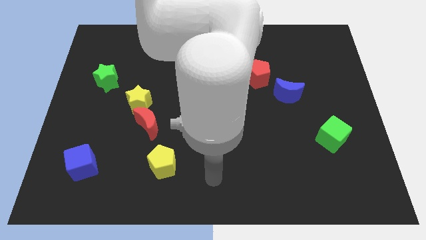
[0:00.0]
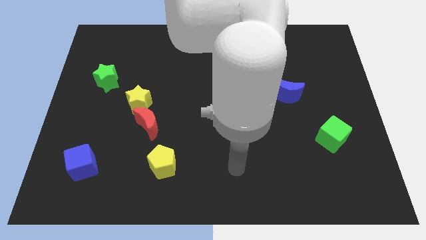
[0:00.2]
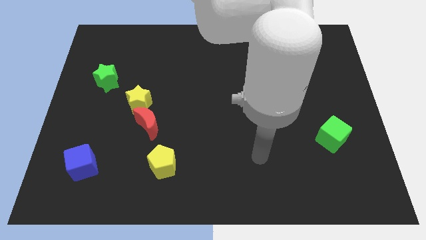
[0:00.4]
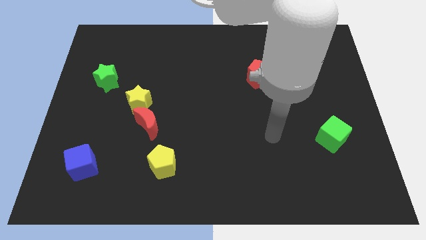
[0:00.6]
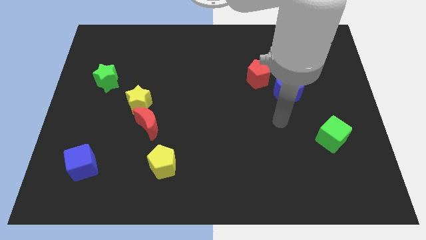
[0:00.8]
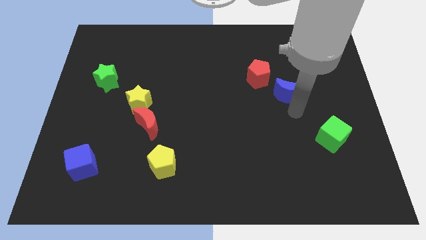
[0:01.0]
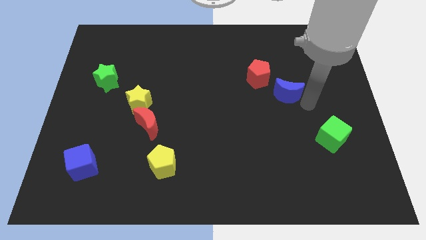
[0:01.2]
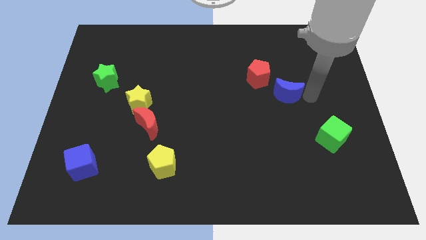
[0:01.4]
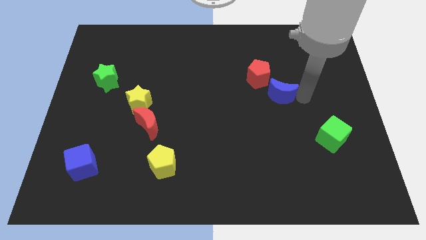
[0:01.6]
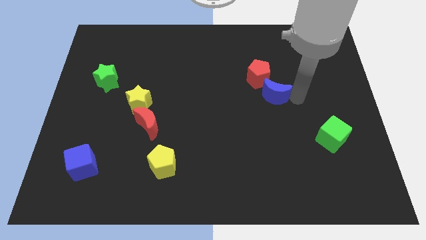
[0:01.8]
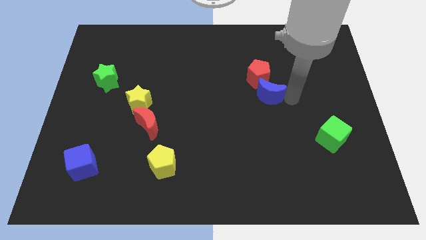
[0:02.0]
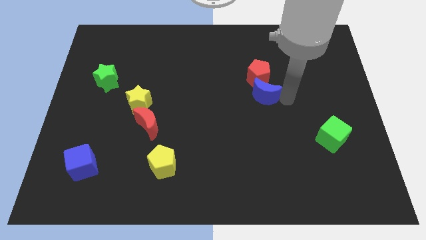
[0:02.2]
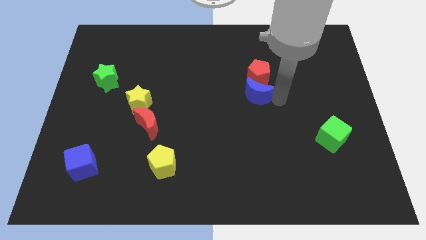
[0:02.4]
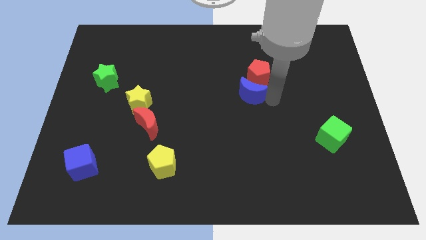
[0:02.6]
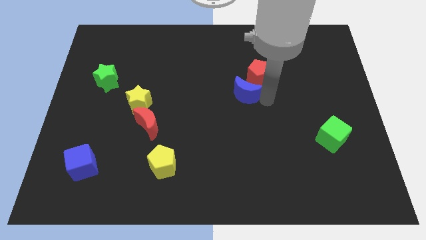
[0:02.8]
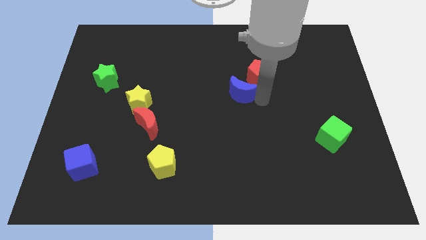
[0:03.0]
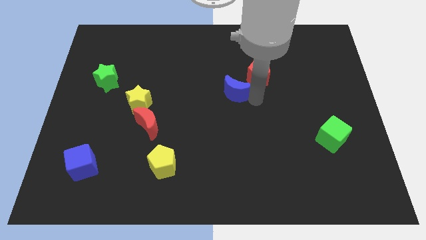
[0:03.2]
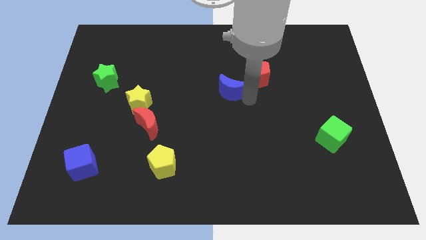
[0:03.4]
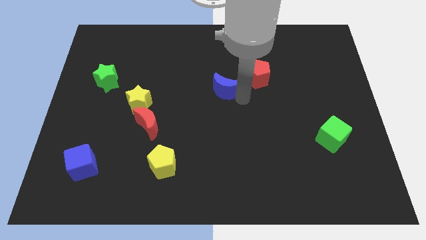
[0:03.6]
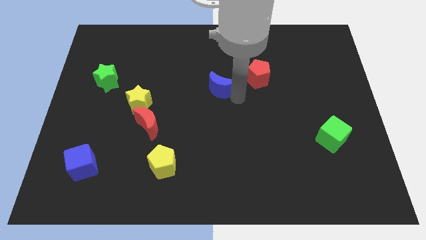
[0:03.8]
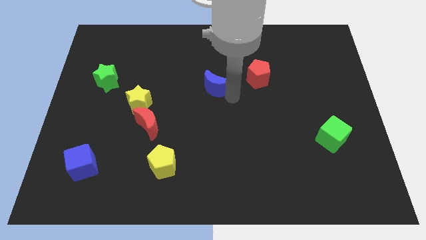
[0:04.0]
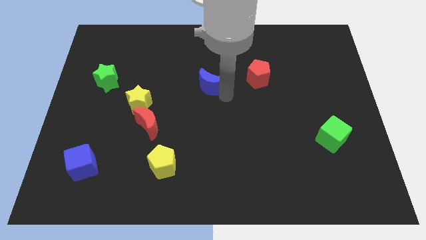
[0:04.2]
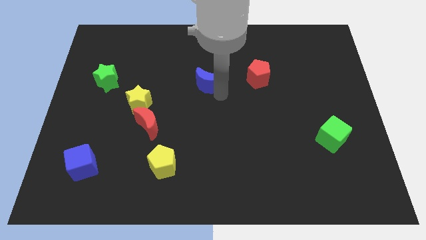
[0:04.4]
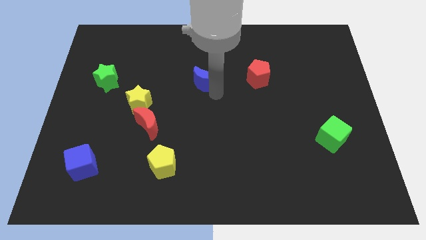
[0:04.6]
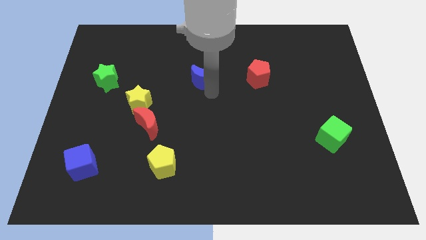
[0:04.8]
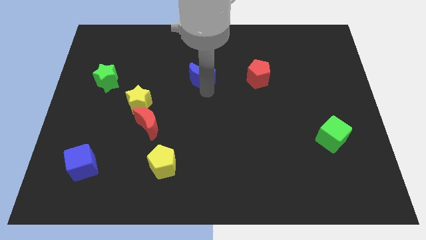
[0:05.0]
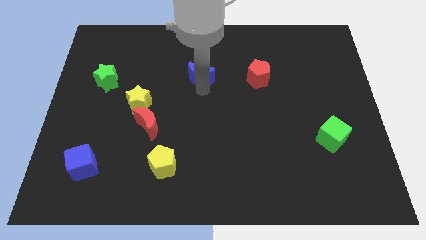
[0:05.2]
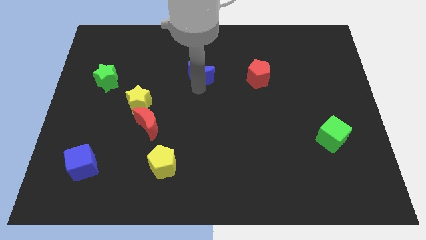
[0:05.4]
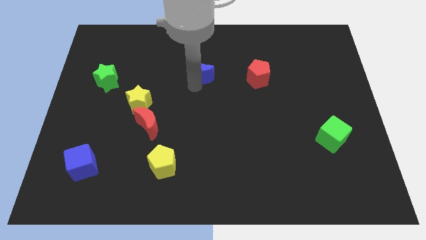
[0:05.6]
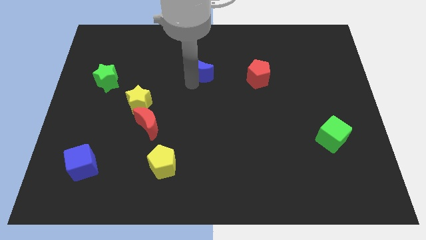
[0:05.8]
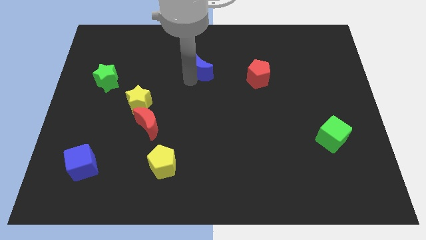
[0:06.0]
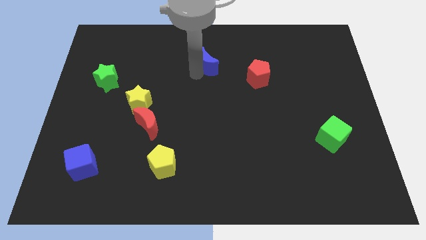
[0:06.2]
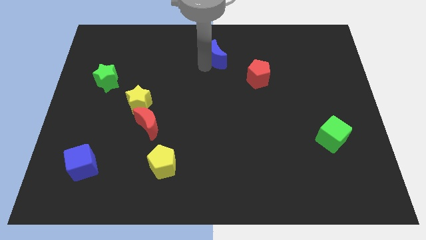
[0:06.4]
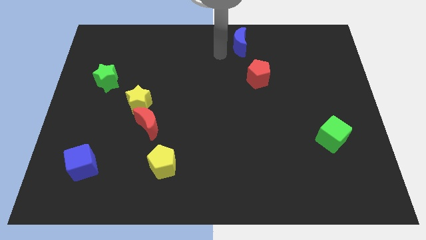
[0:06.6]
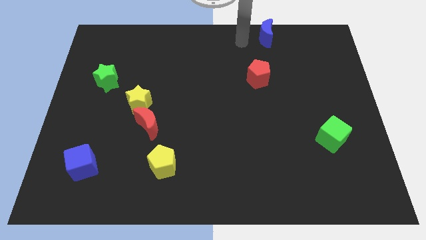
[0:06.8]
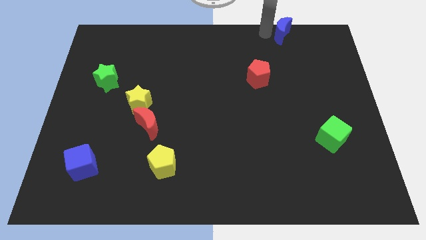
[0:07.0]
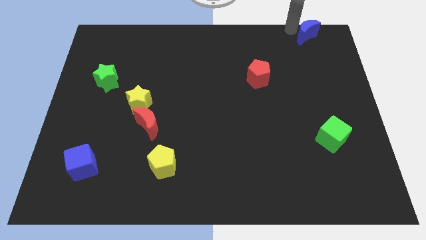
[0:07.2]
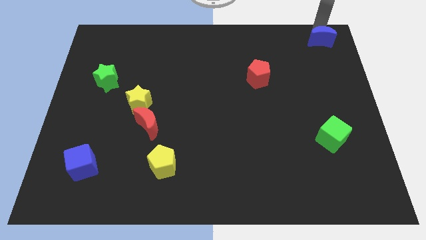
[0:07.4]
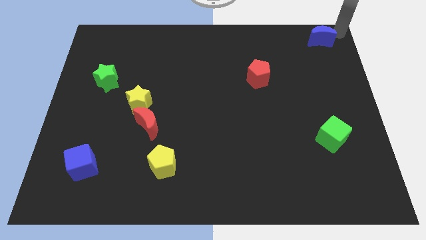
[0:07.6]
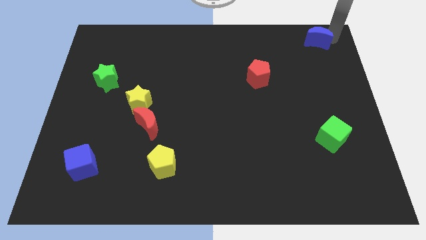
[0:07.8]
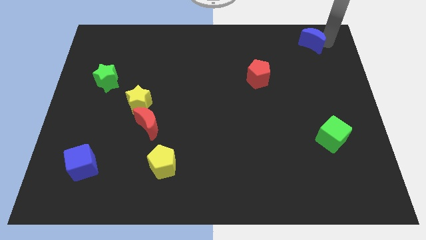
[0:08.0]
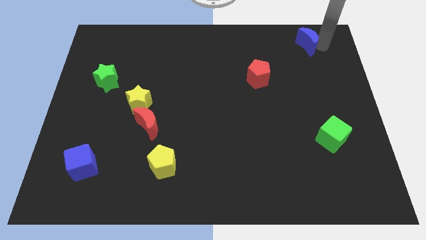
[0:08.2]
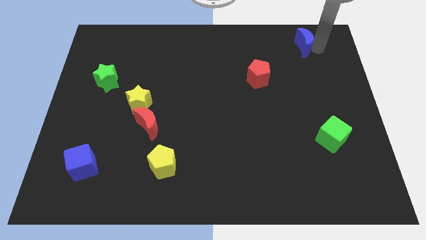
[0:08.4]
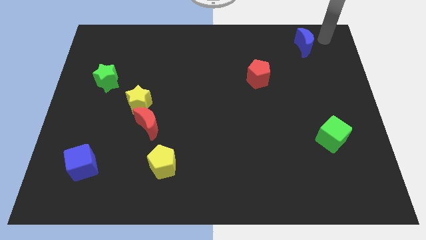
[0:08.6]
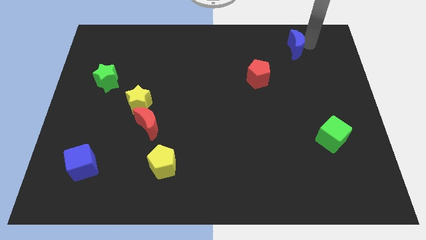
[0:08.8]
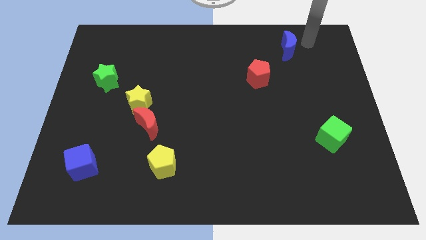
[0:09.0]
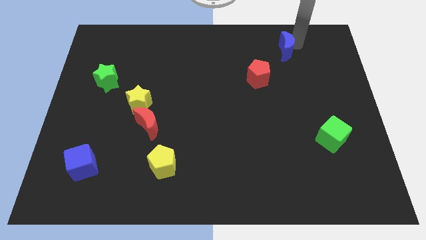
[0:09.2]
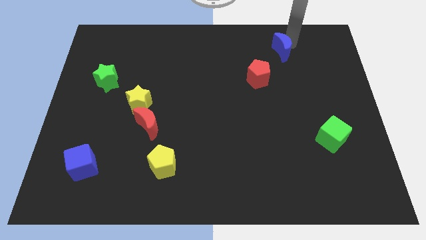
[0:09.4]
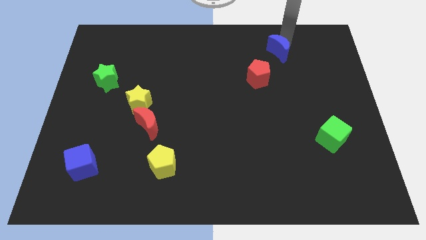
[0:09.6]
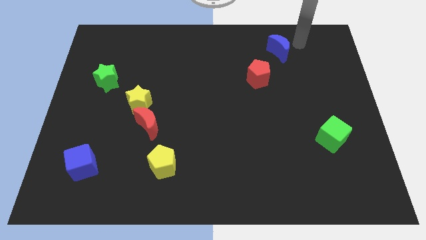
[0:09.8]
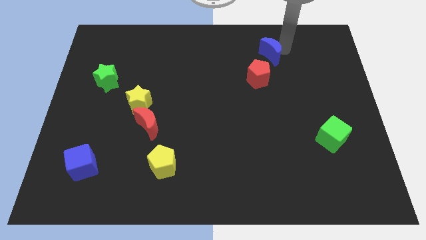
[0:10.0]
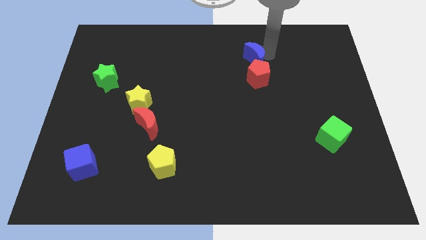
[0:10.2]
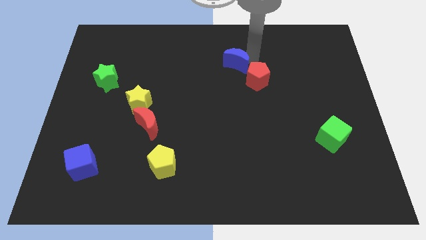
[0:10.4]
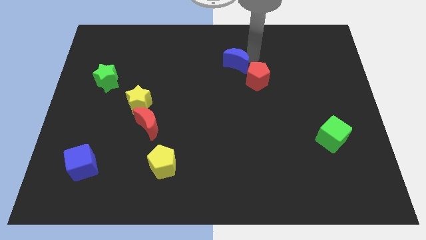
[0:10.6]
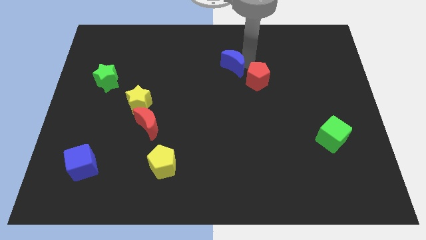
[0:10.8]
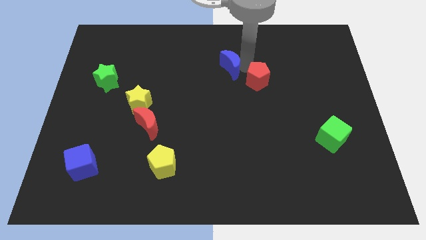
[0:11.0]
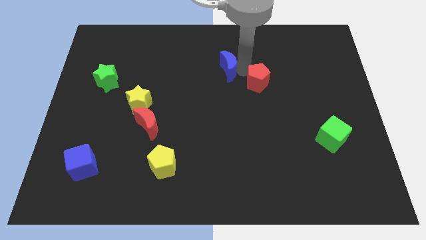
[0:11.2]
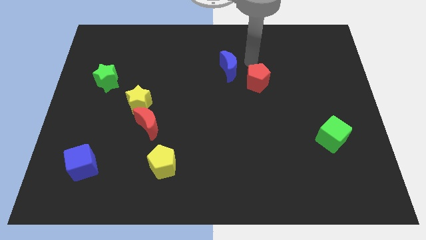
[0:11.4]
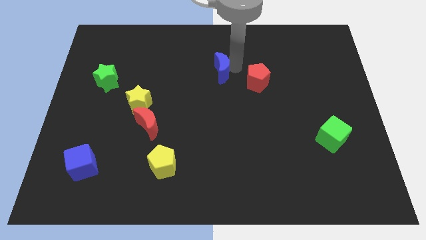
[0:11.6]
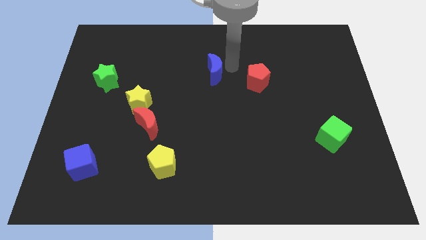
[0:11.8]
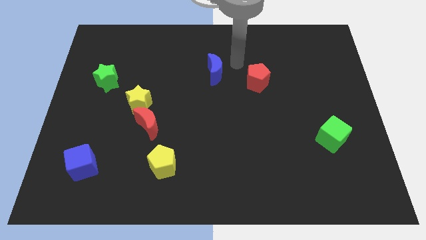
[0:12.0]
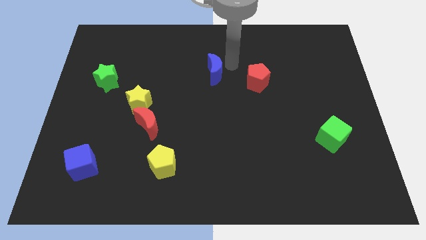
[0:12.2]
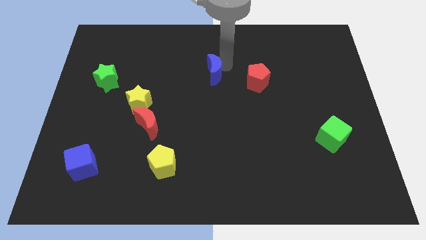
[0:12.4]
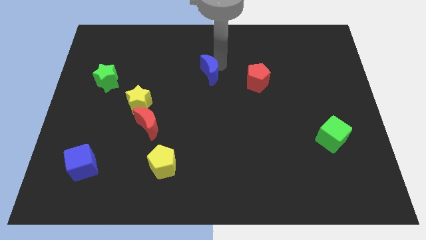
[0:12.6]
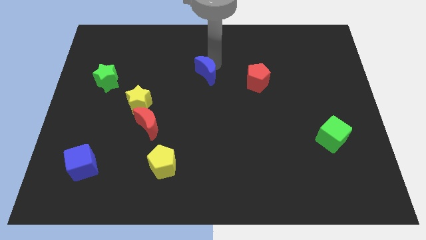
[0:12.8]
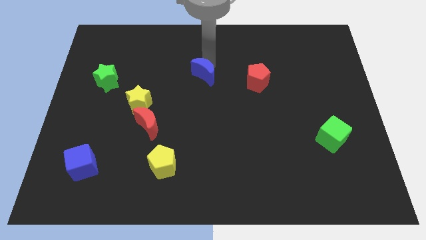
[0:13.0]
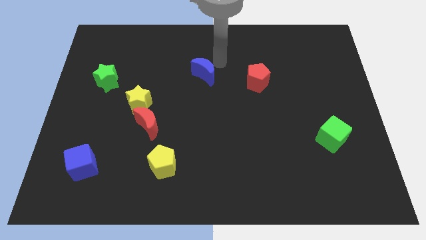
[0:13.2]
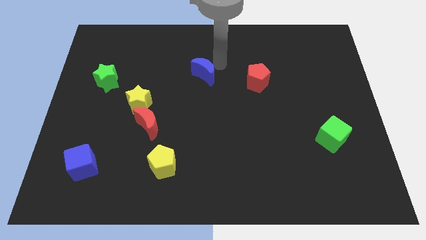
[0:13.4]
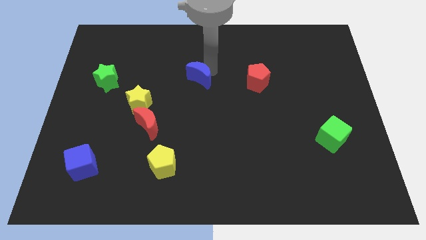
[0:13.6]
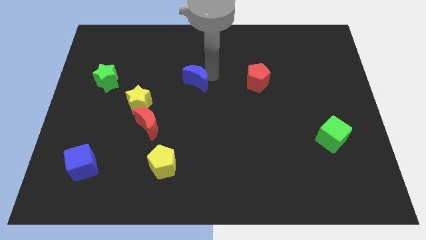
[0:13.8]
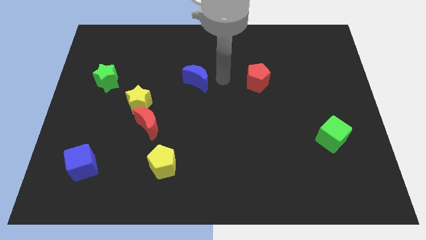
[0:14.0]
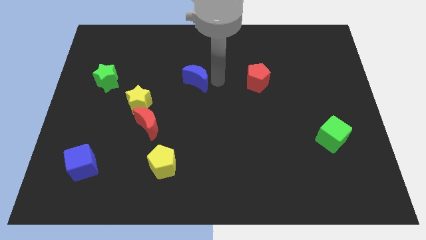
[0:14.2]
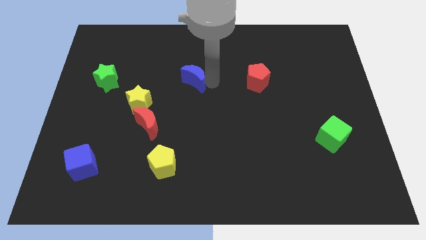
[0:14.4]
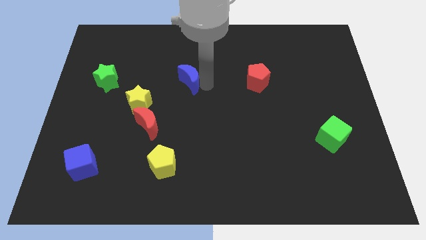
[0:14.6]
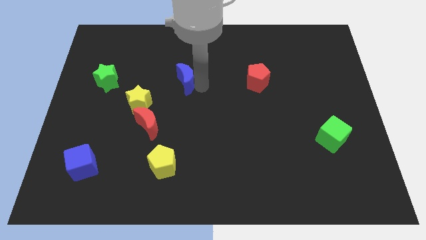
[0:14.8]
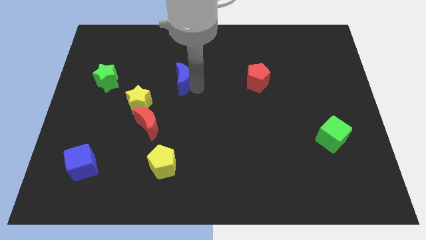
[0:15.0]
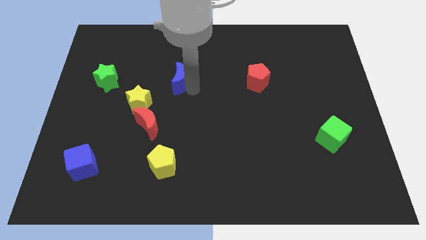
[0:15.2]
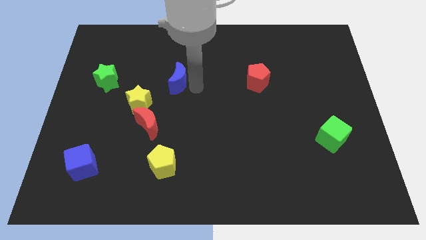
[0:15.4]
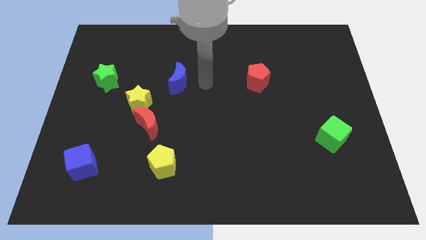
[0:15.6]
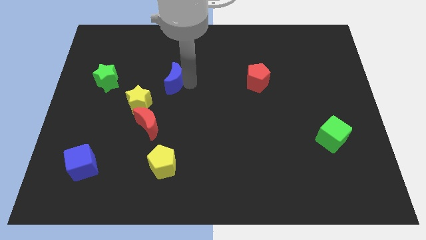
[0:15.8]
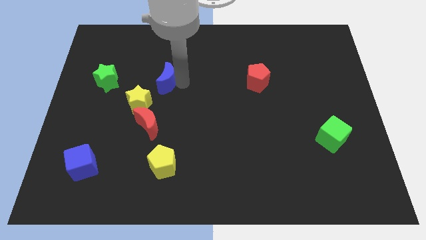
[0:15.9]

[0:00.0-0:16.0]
push the blue moon to the right side of the green star
